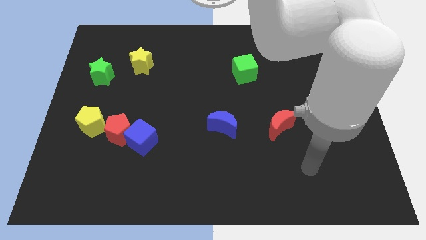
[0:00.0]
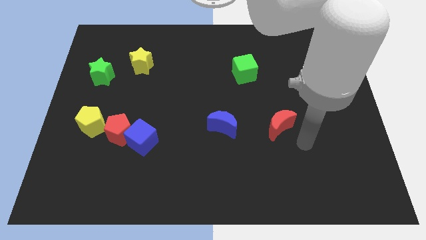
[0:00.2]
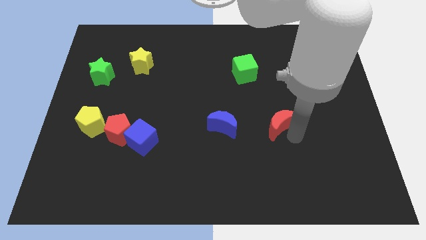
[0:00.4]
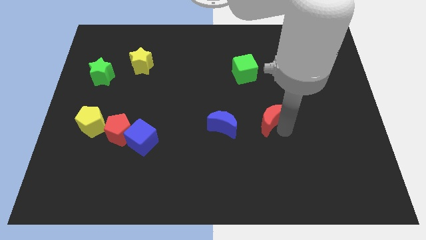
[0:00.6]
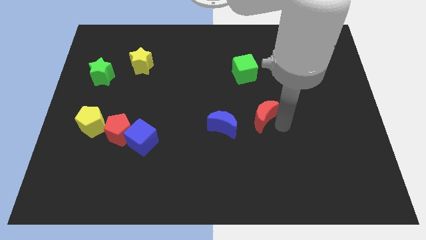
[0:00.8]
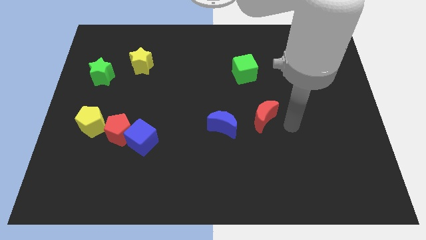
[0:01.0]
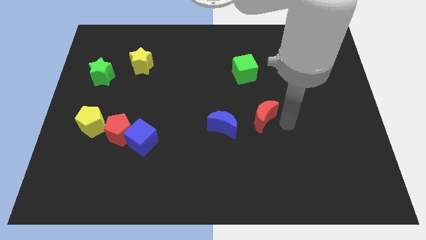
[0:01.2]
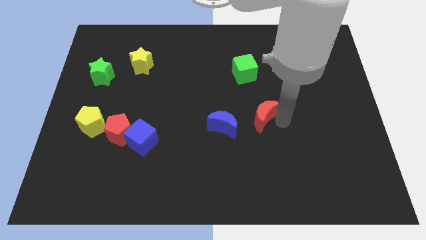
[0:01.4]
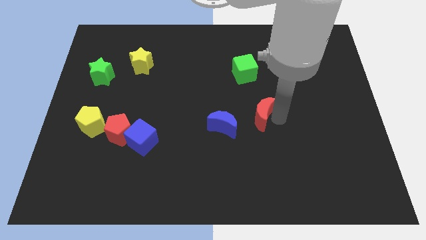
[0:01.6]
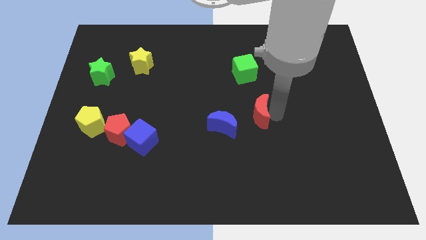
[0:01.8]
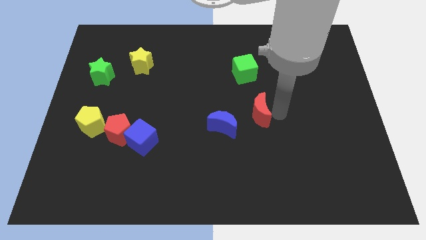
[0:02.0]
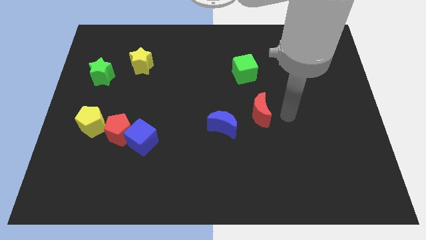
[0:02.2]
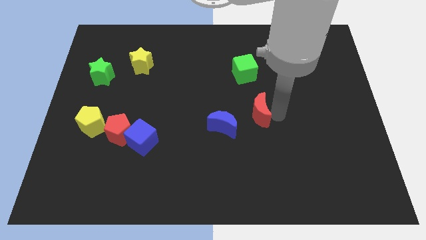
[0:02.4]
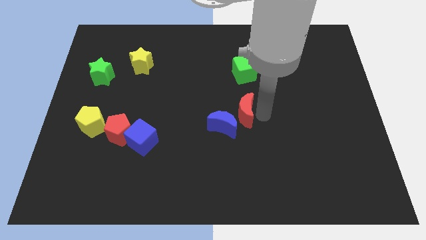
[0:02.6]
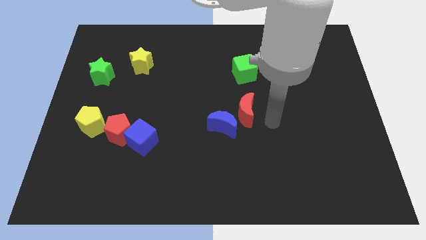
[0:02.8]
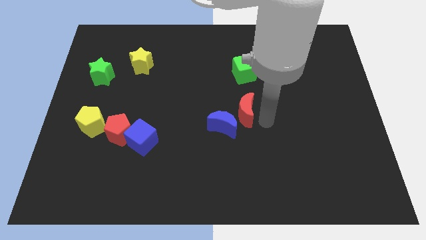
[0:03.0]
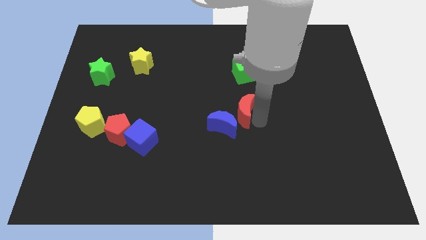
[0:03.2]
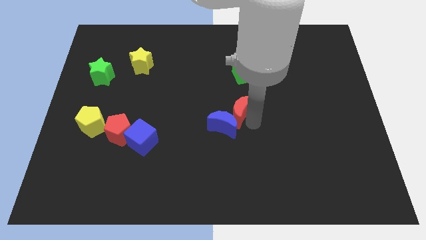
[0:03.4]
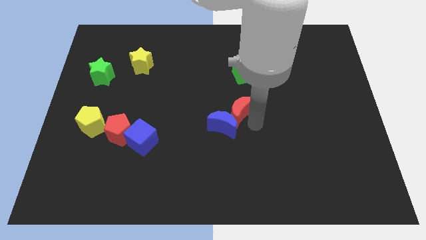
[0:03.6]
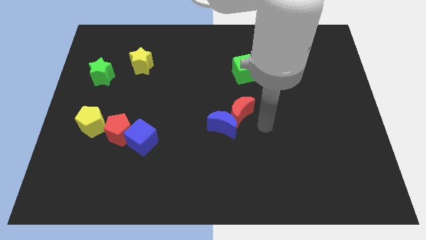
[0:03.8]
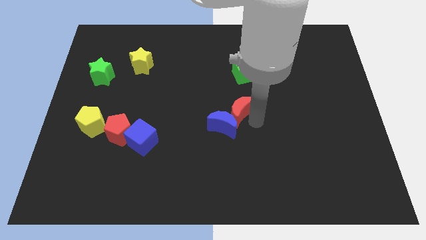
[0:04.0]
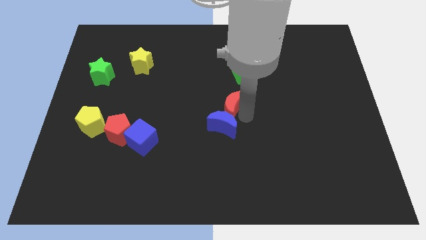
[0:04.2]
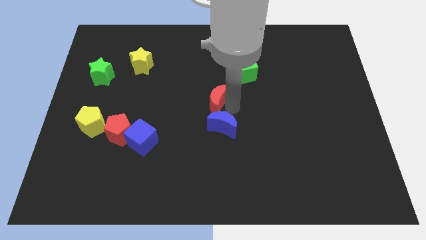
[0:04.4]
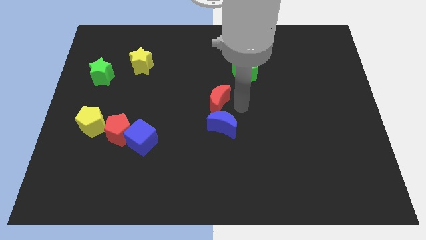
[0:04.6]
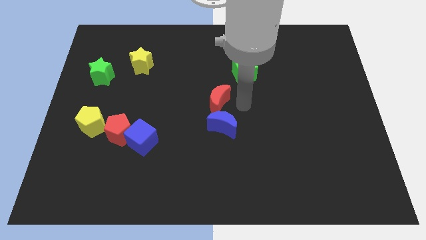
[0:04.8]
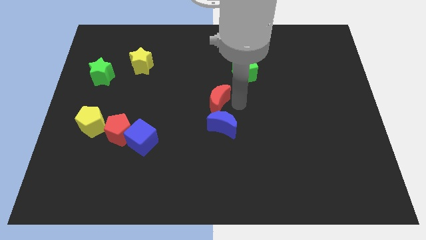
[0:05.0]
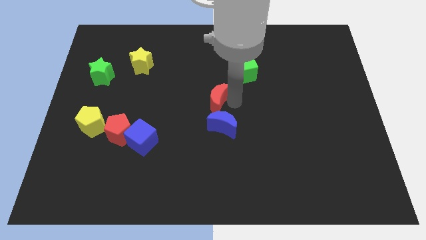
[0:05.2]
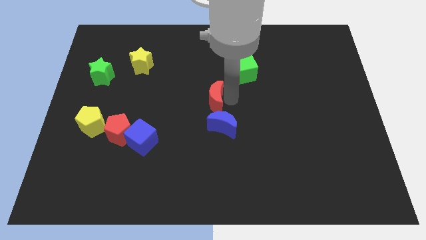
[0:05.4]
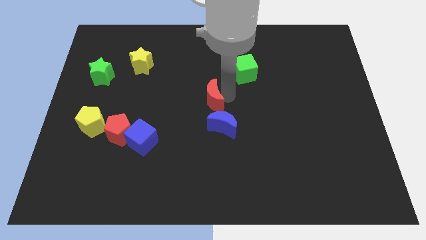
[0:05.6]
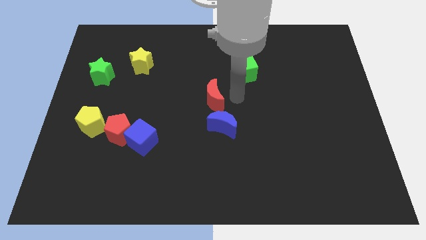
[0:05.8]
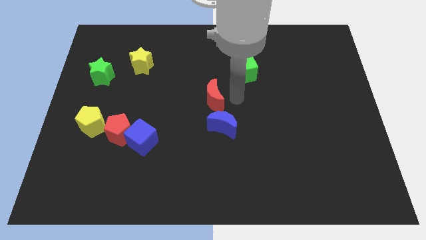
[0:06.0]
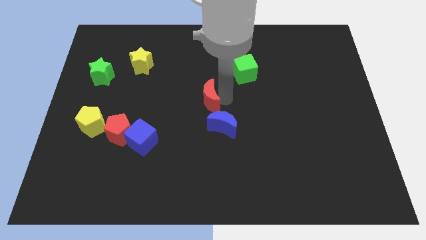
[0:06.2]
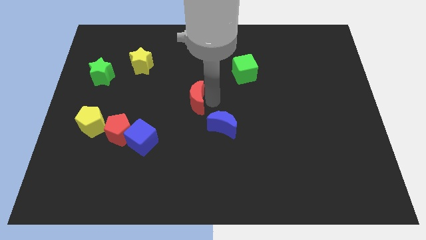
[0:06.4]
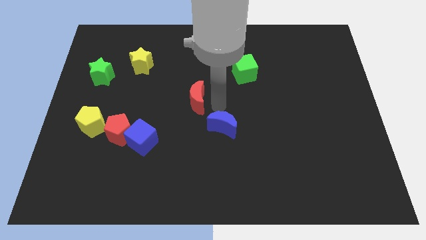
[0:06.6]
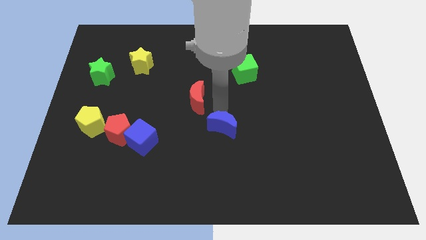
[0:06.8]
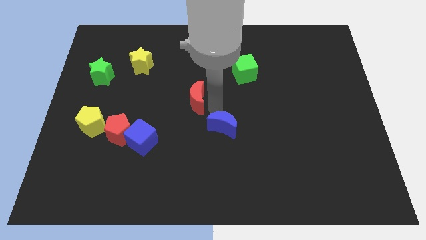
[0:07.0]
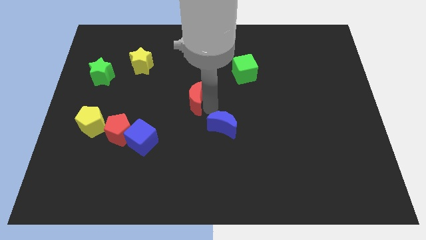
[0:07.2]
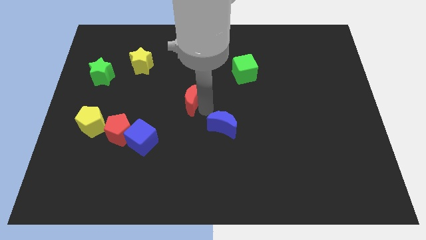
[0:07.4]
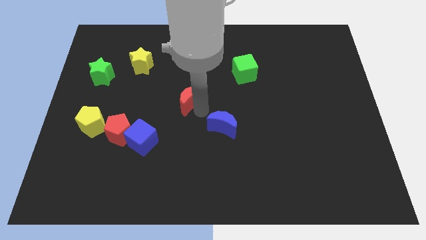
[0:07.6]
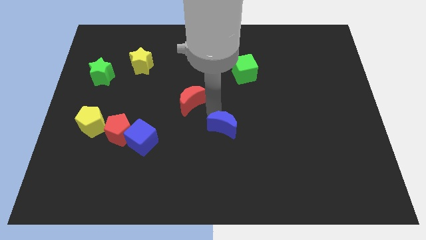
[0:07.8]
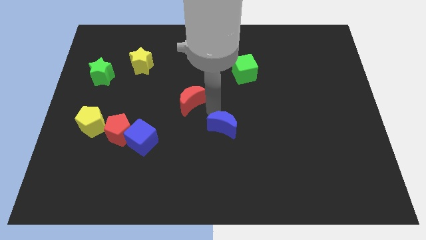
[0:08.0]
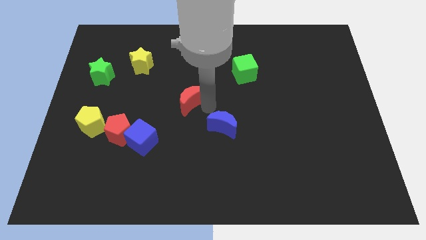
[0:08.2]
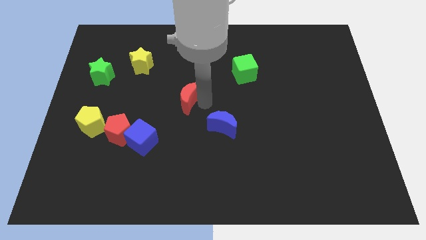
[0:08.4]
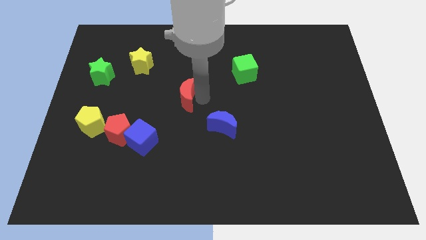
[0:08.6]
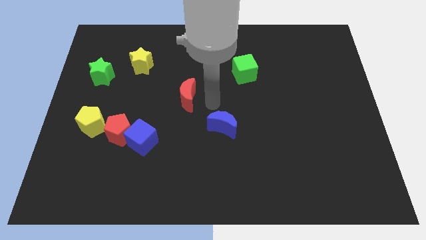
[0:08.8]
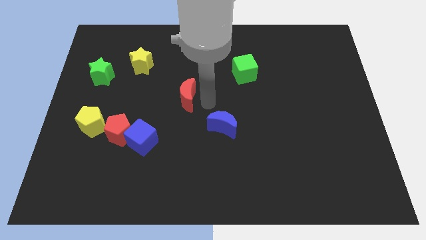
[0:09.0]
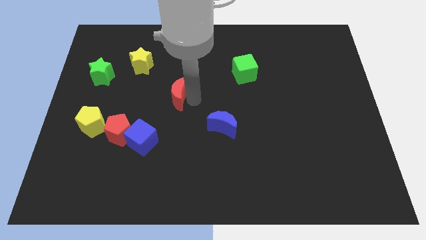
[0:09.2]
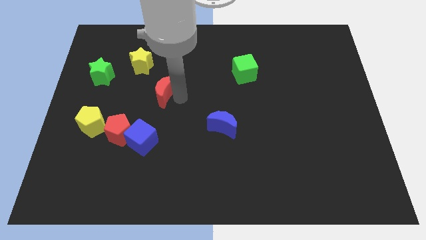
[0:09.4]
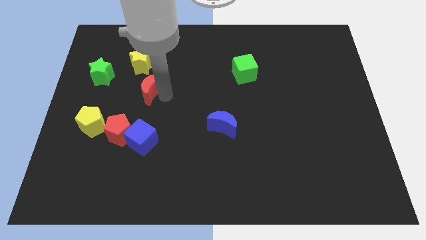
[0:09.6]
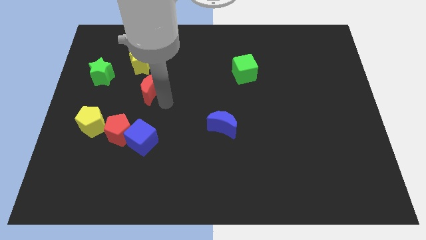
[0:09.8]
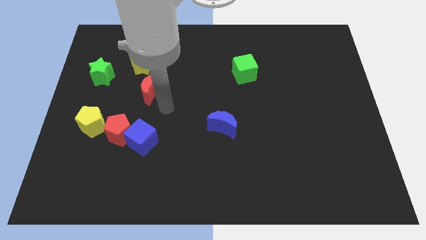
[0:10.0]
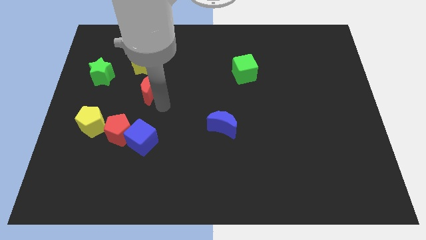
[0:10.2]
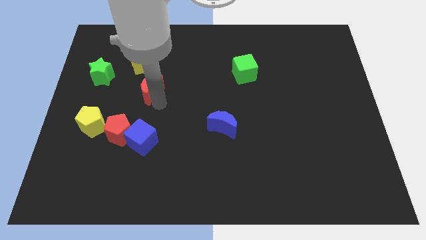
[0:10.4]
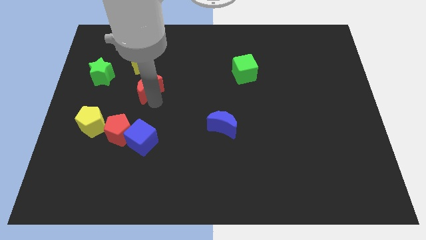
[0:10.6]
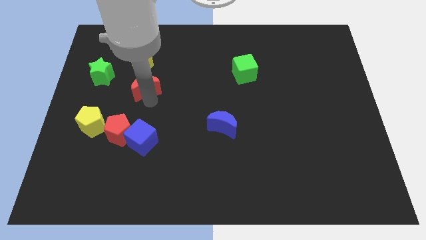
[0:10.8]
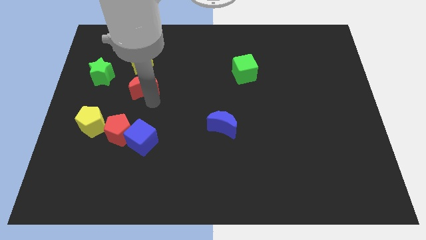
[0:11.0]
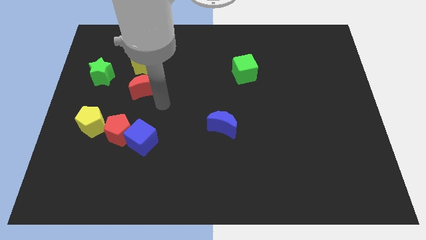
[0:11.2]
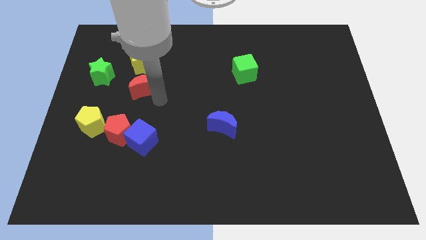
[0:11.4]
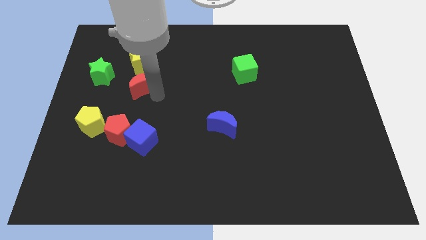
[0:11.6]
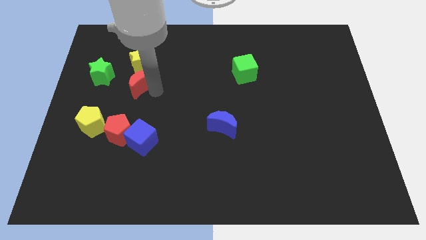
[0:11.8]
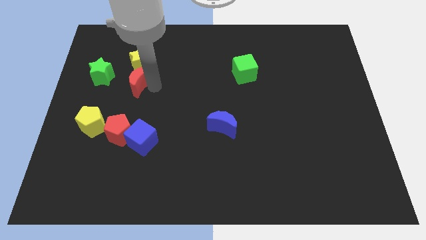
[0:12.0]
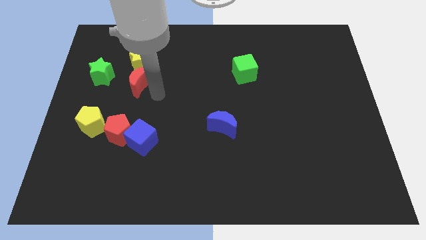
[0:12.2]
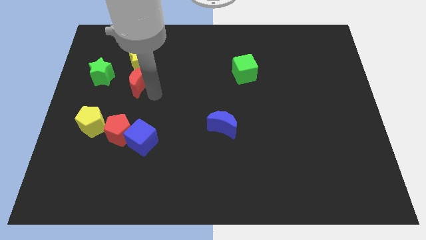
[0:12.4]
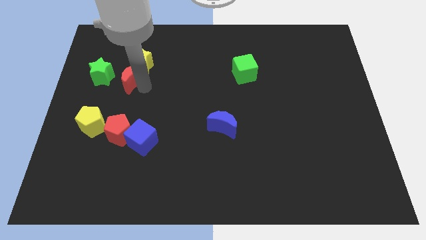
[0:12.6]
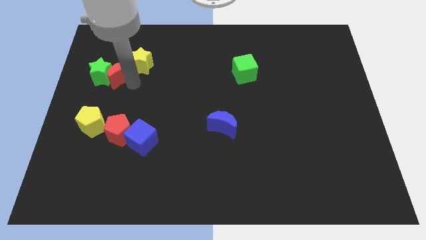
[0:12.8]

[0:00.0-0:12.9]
put the red moon to the top right of the green star

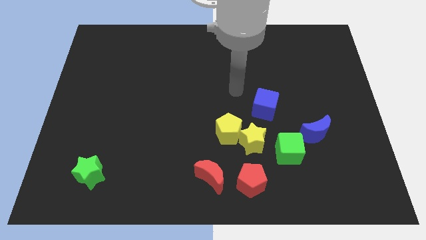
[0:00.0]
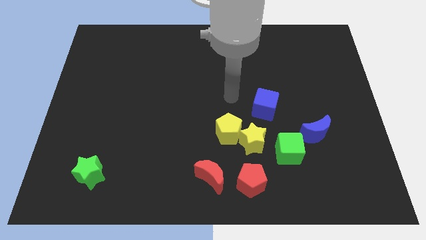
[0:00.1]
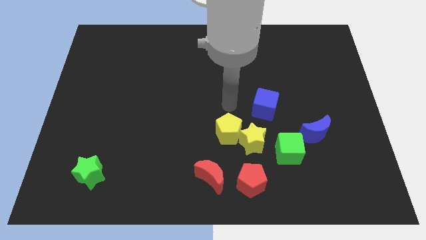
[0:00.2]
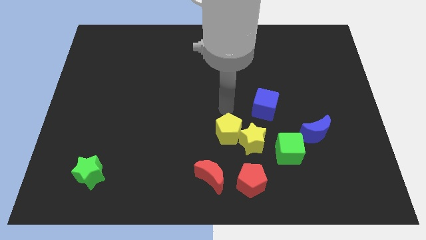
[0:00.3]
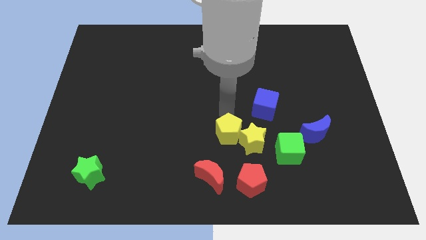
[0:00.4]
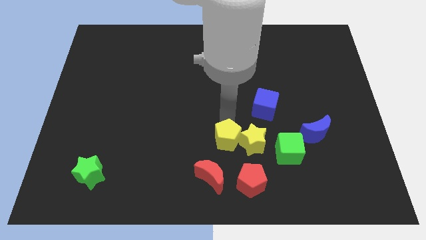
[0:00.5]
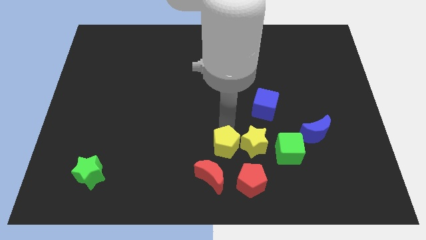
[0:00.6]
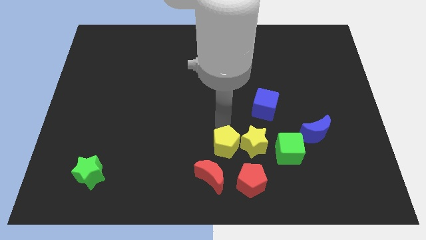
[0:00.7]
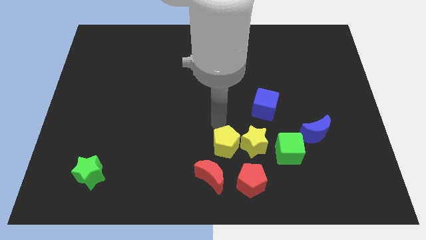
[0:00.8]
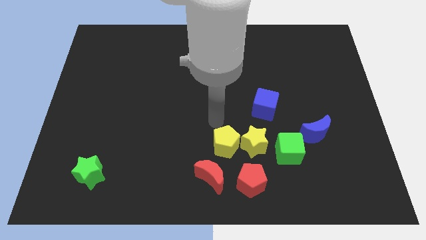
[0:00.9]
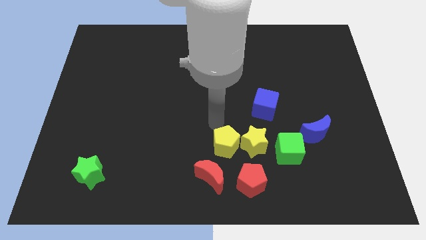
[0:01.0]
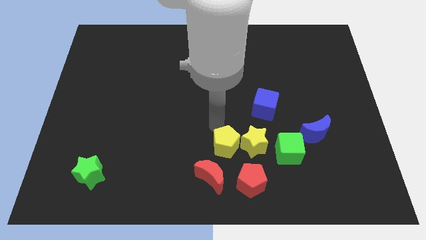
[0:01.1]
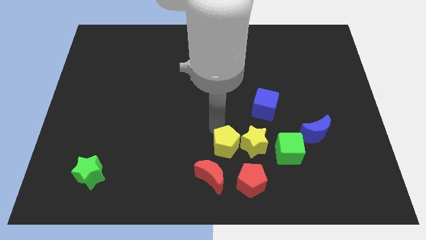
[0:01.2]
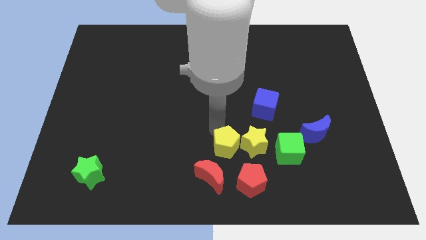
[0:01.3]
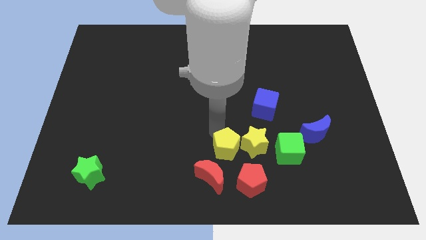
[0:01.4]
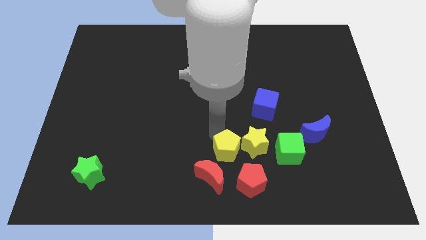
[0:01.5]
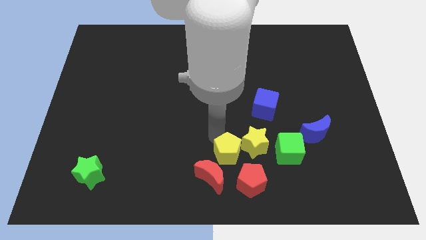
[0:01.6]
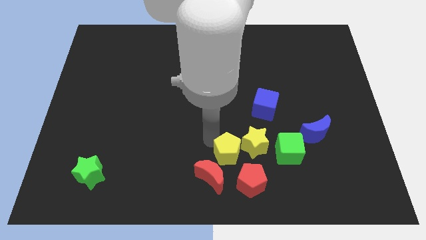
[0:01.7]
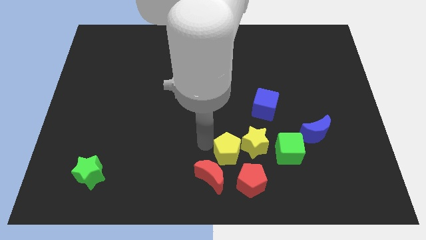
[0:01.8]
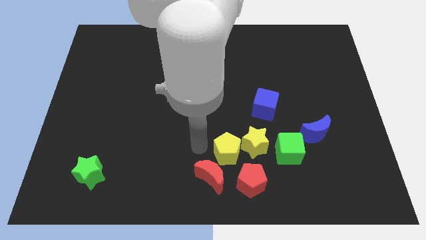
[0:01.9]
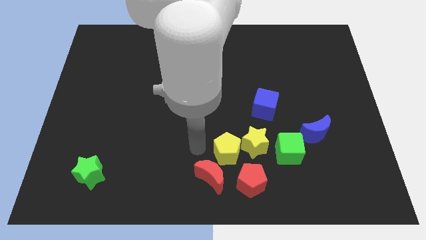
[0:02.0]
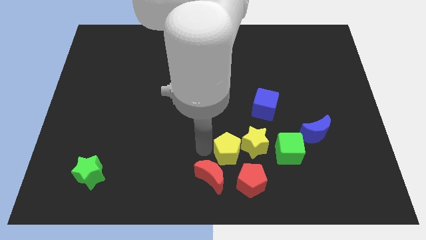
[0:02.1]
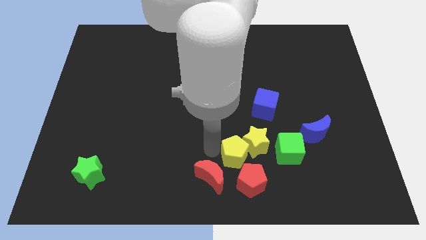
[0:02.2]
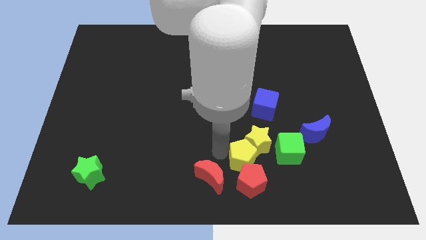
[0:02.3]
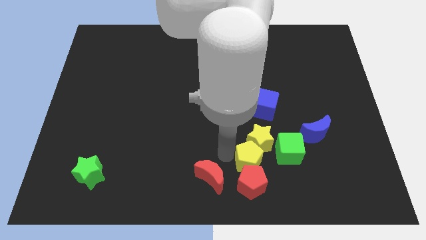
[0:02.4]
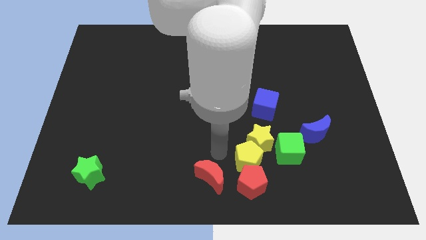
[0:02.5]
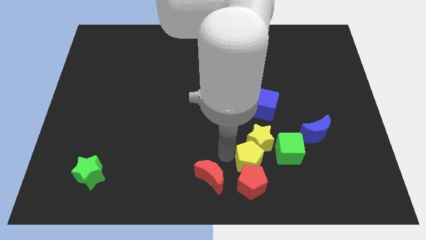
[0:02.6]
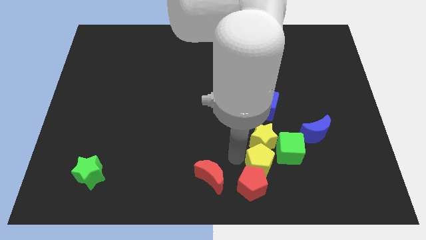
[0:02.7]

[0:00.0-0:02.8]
push the yellow pentagon to the bottom side of the blue cube
